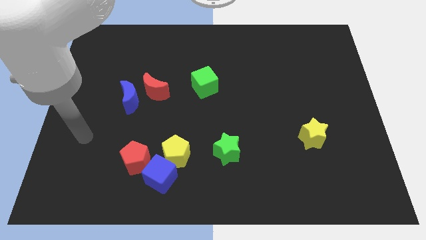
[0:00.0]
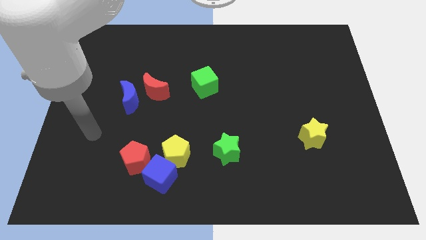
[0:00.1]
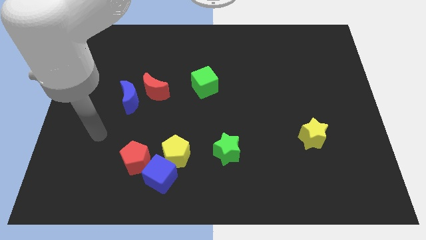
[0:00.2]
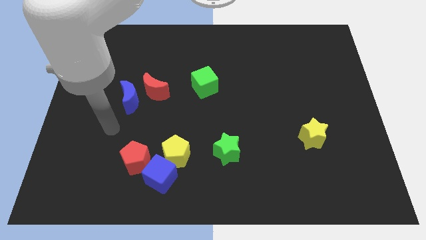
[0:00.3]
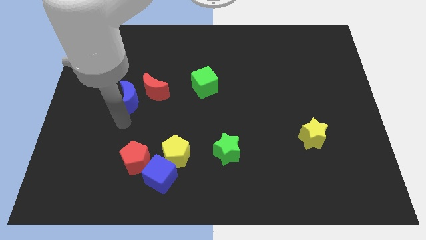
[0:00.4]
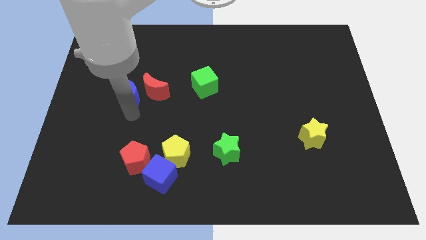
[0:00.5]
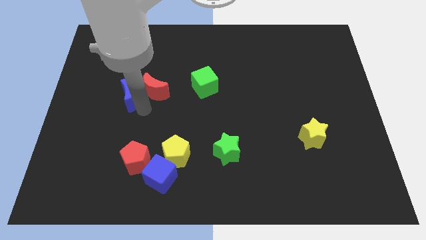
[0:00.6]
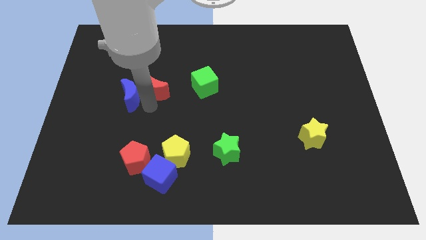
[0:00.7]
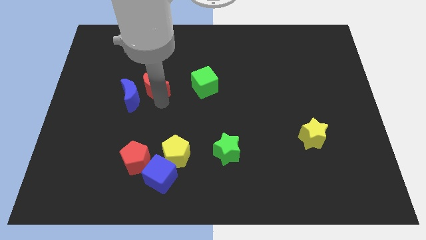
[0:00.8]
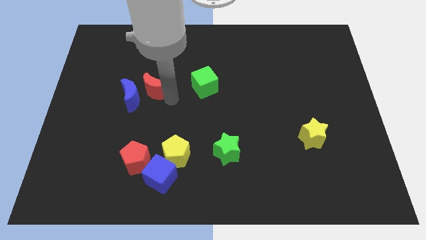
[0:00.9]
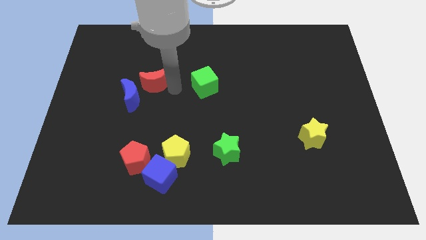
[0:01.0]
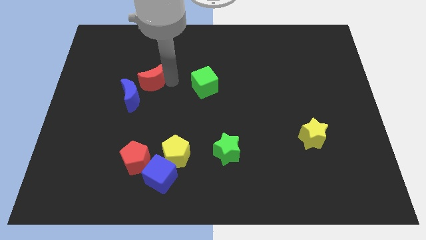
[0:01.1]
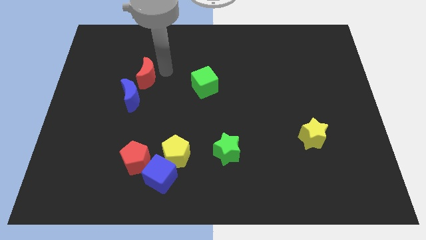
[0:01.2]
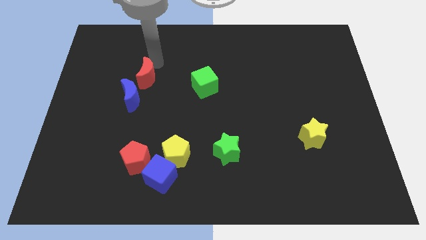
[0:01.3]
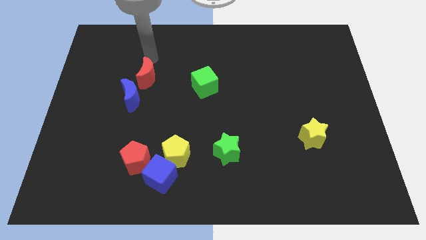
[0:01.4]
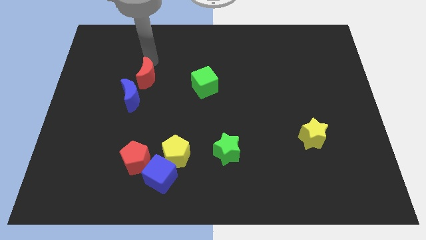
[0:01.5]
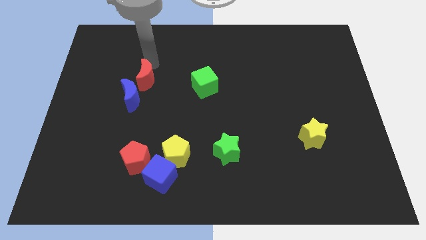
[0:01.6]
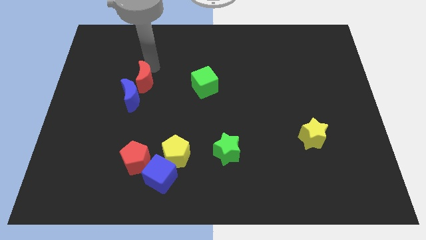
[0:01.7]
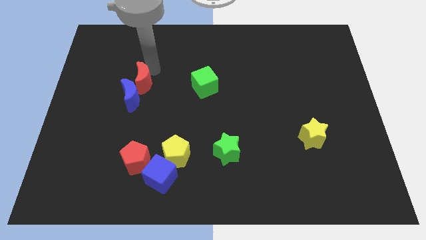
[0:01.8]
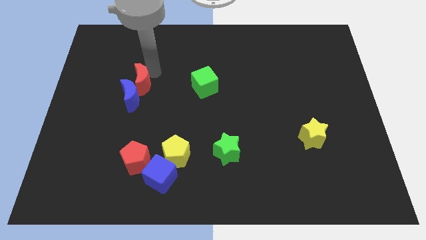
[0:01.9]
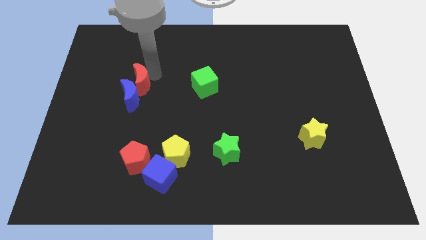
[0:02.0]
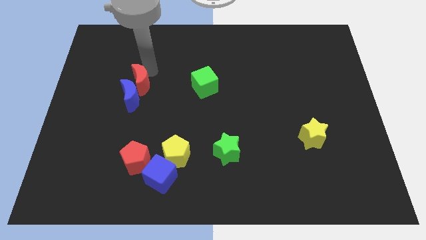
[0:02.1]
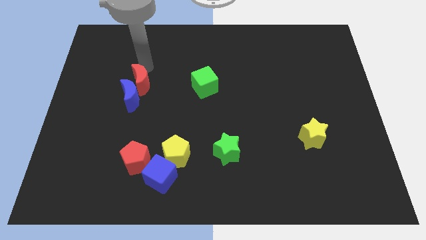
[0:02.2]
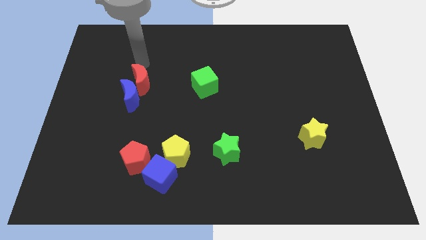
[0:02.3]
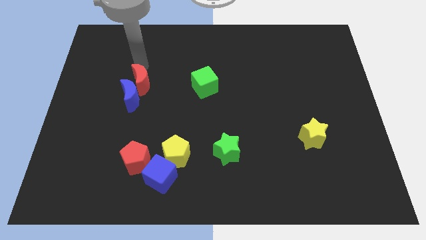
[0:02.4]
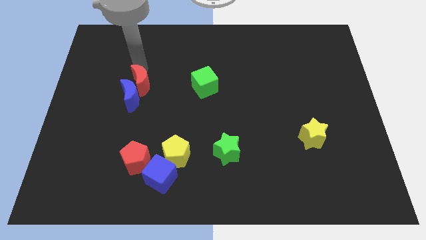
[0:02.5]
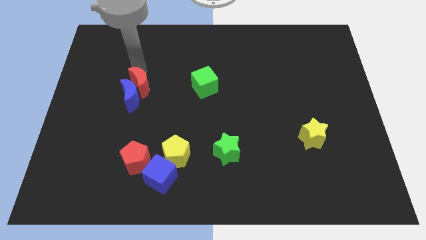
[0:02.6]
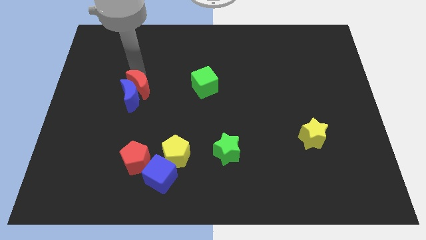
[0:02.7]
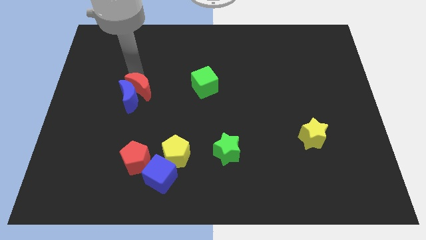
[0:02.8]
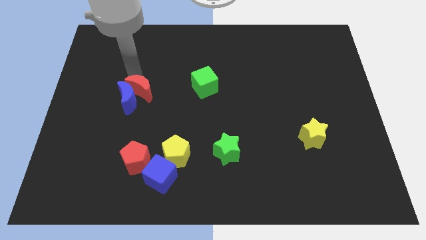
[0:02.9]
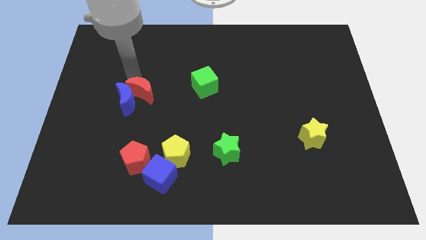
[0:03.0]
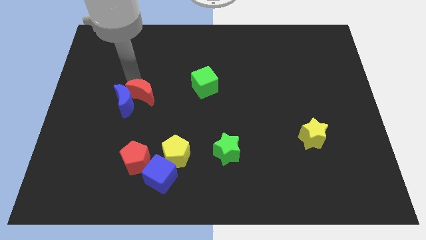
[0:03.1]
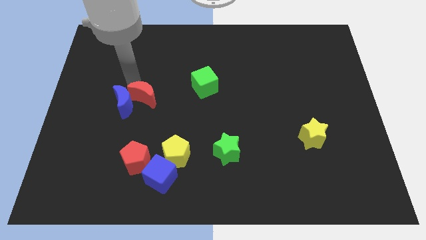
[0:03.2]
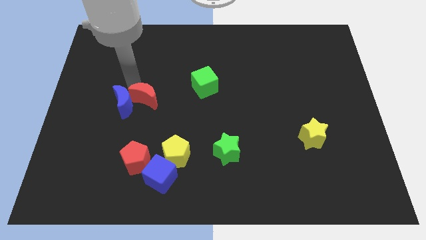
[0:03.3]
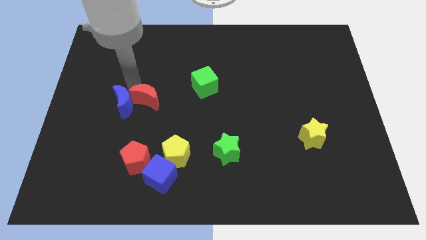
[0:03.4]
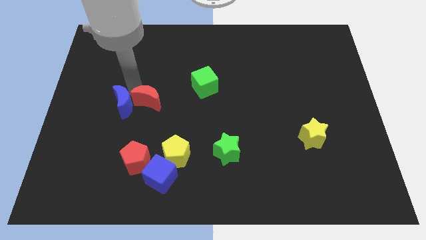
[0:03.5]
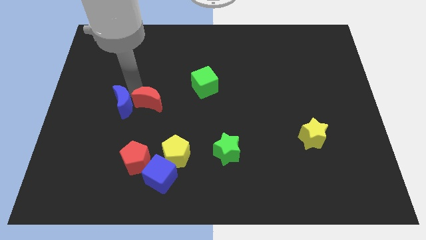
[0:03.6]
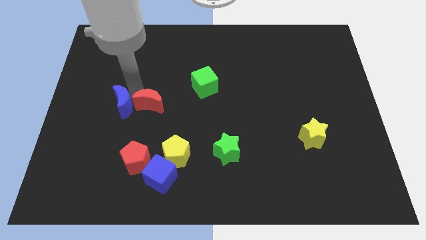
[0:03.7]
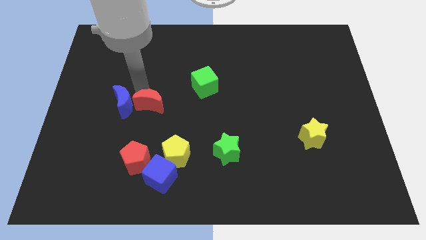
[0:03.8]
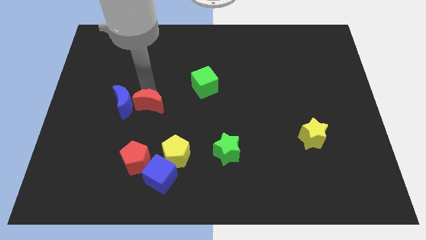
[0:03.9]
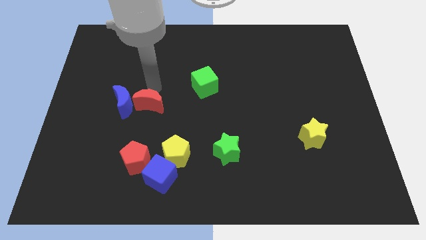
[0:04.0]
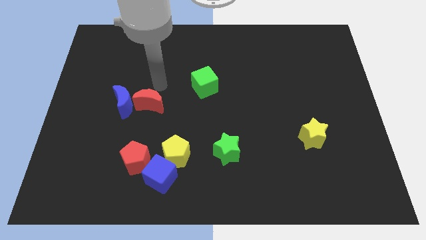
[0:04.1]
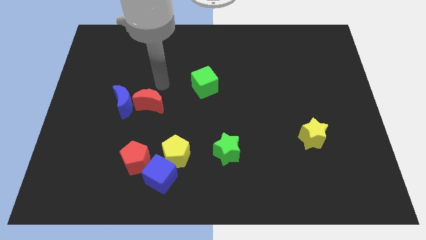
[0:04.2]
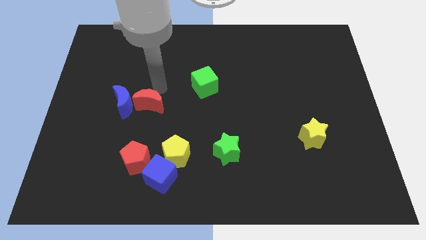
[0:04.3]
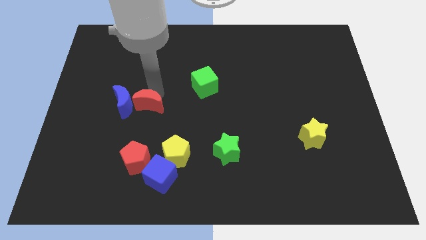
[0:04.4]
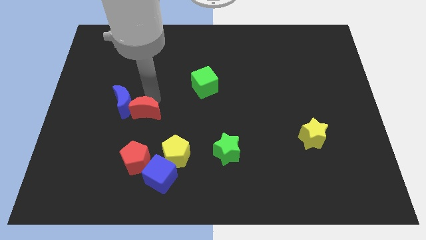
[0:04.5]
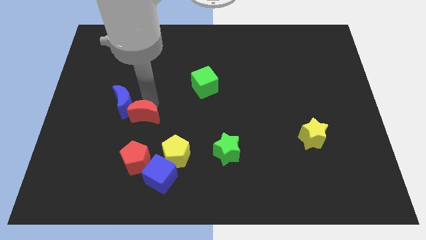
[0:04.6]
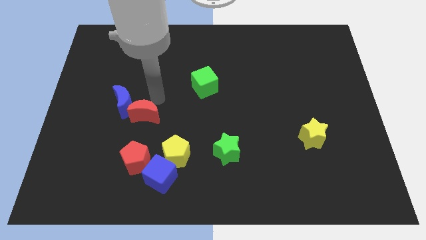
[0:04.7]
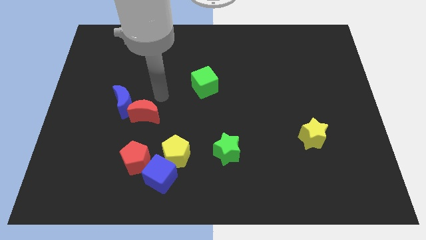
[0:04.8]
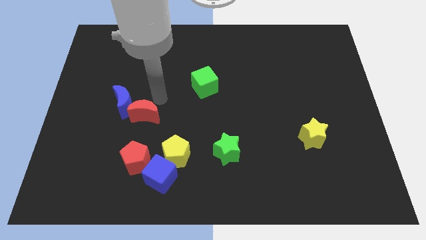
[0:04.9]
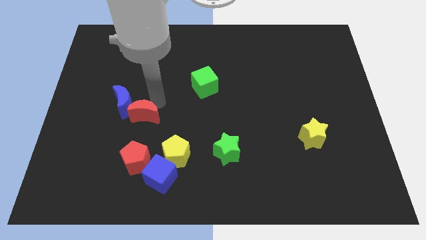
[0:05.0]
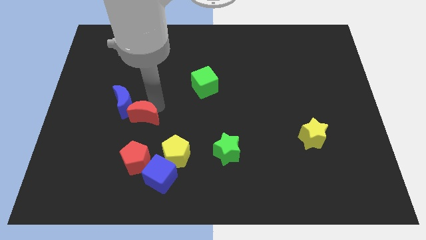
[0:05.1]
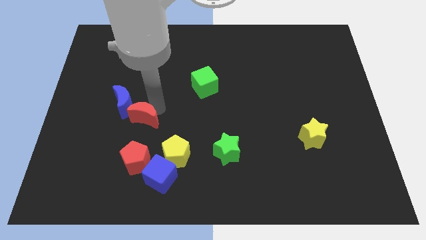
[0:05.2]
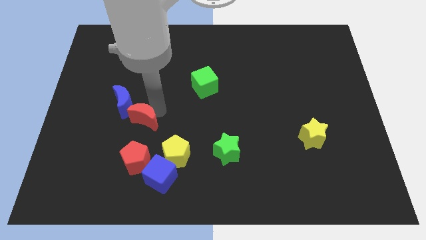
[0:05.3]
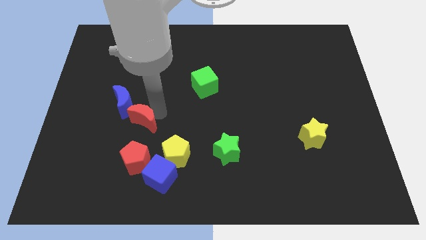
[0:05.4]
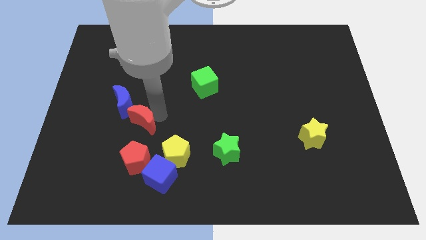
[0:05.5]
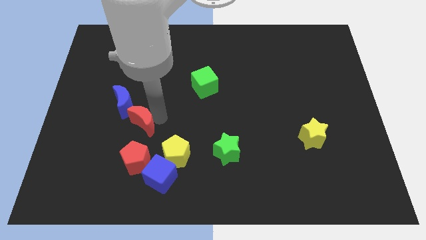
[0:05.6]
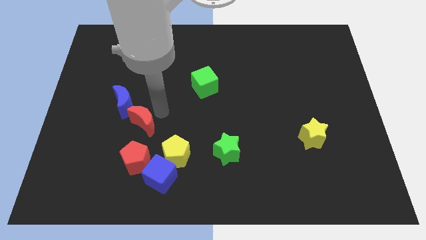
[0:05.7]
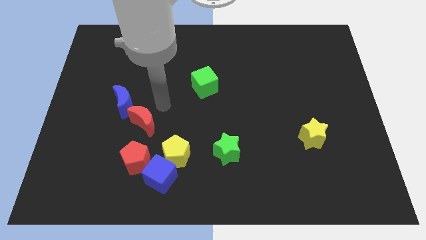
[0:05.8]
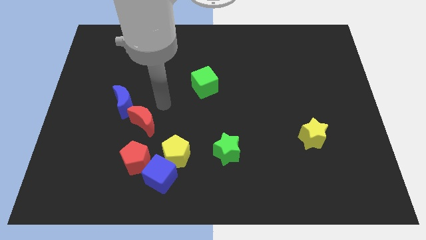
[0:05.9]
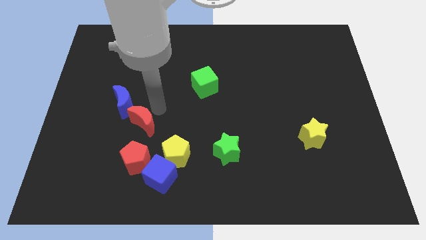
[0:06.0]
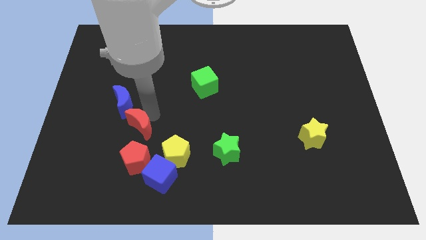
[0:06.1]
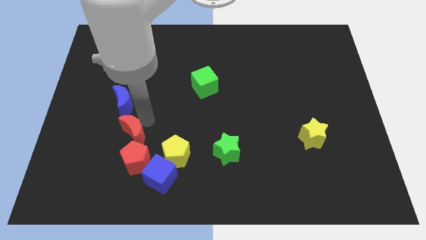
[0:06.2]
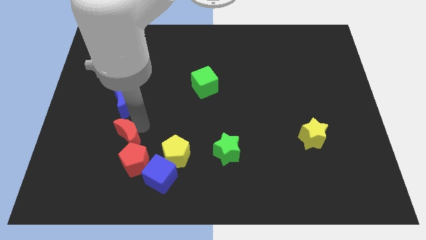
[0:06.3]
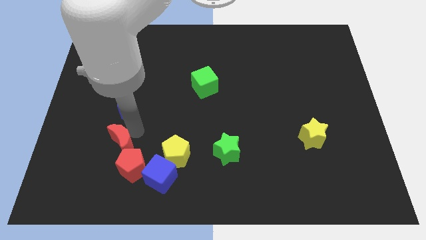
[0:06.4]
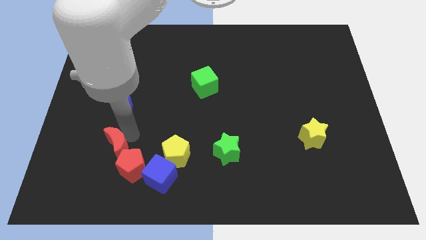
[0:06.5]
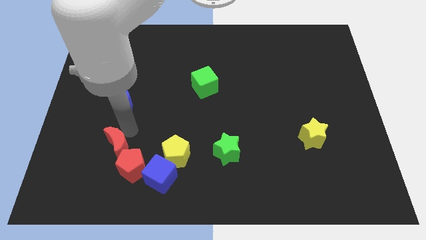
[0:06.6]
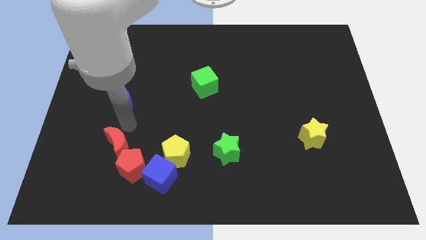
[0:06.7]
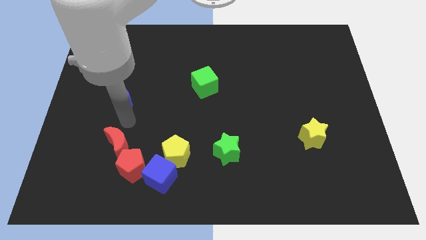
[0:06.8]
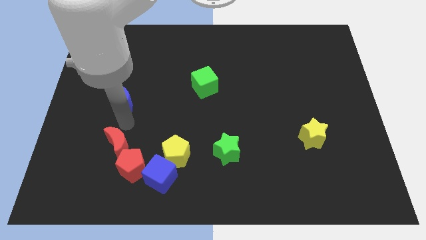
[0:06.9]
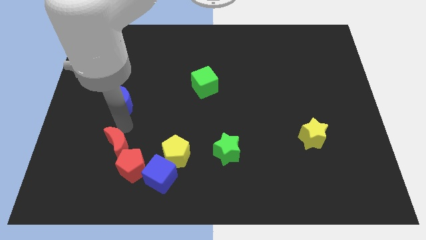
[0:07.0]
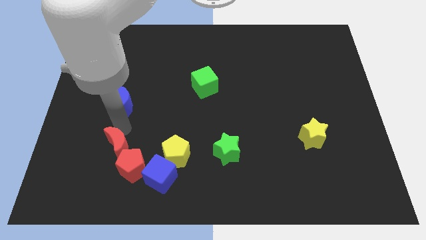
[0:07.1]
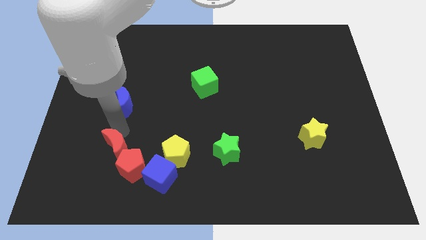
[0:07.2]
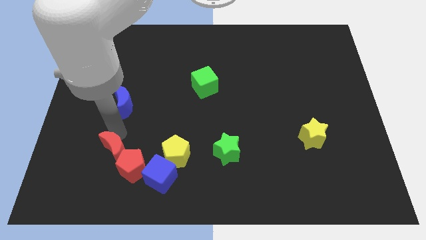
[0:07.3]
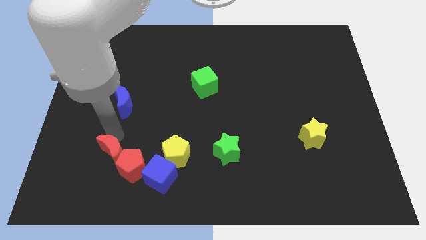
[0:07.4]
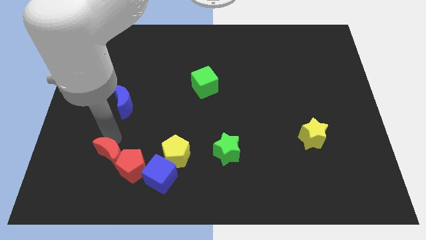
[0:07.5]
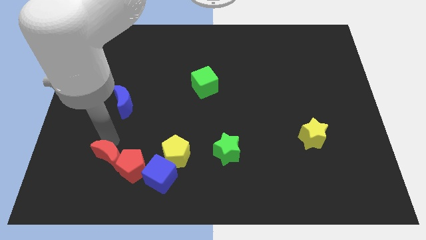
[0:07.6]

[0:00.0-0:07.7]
put the red moon left of the blue cube
